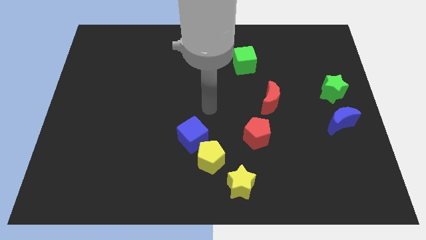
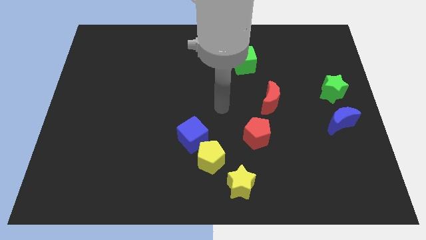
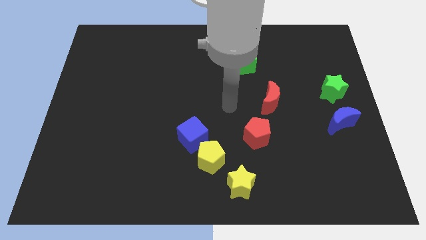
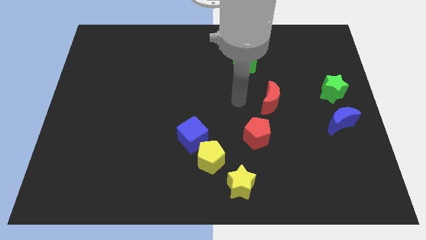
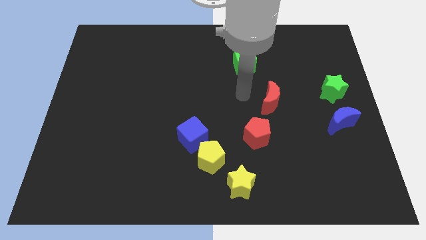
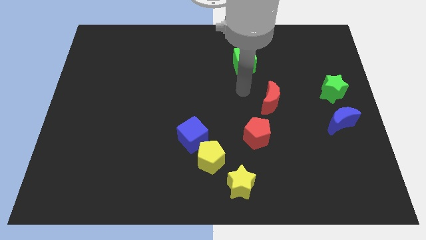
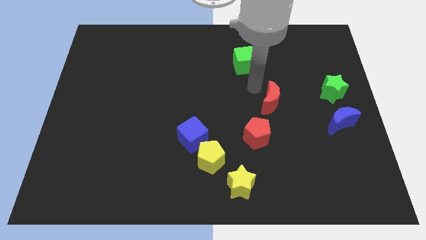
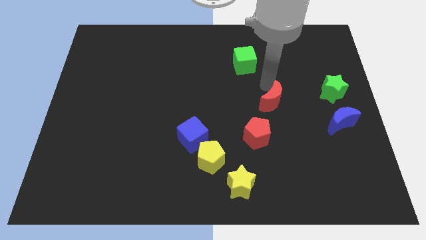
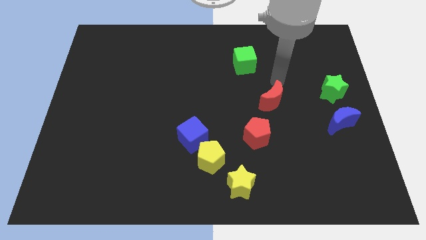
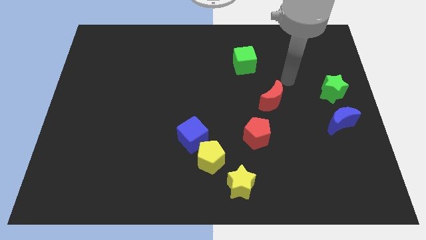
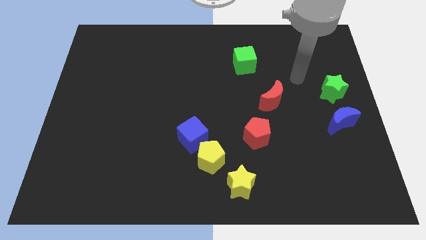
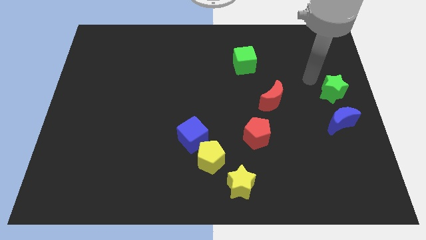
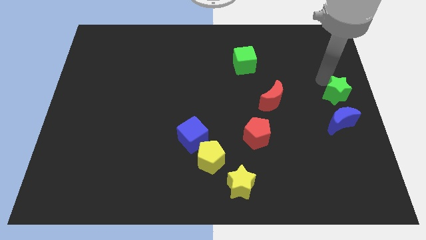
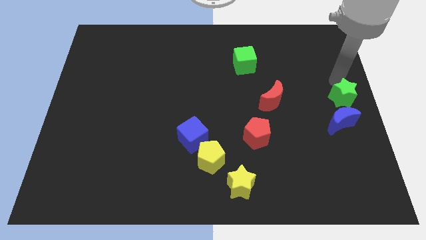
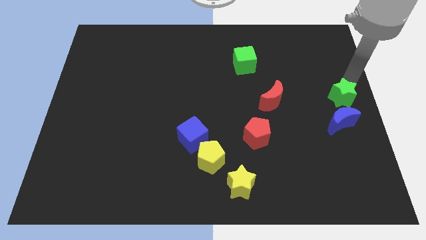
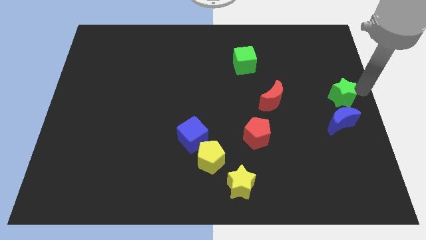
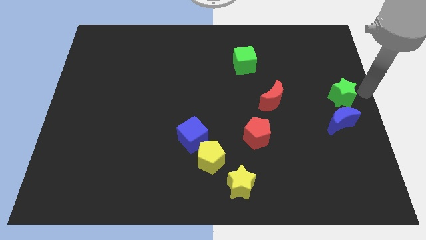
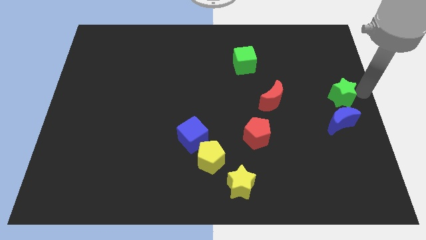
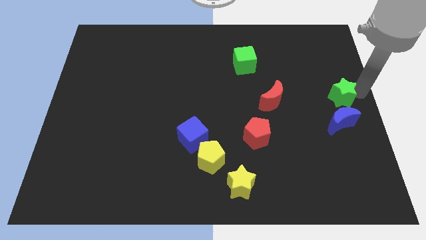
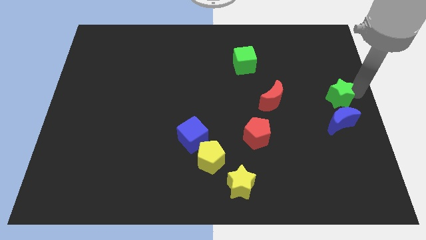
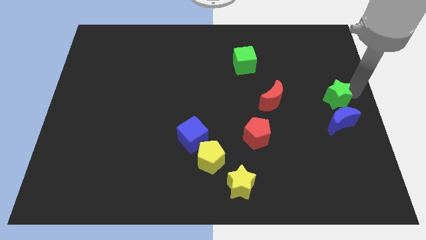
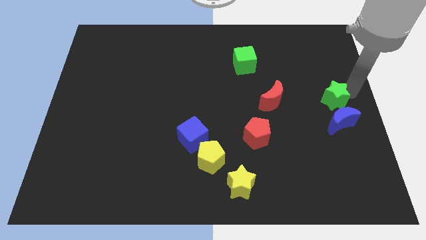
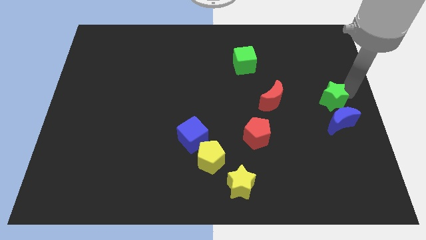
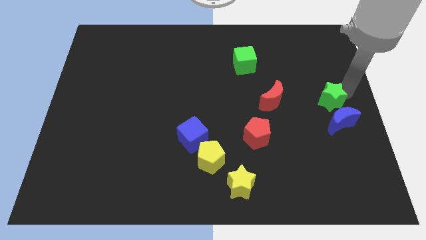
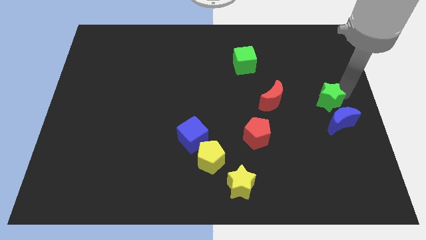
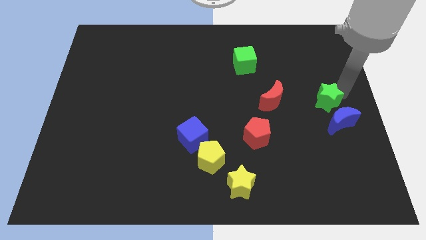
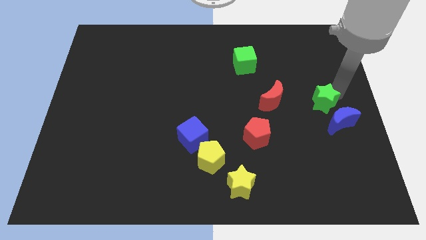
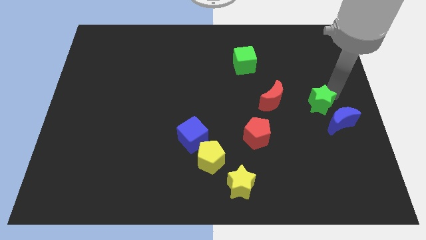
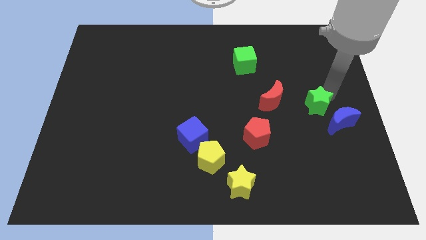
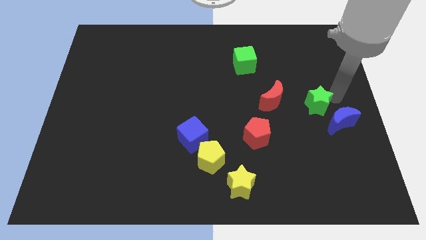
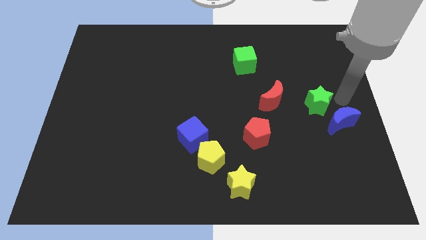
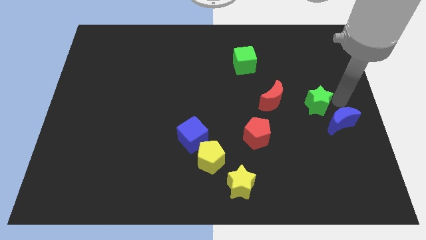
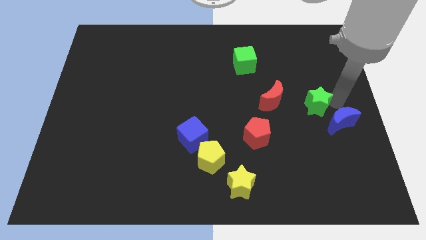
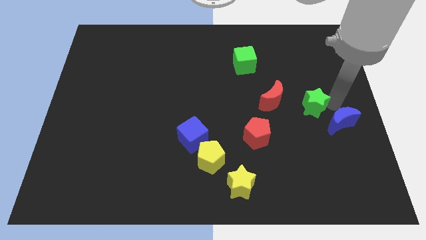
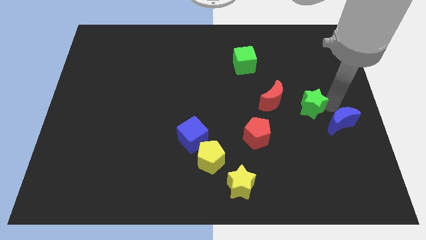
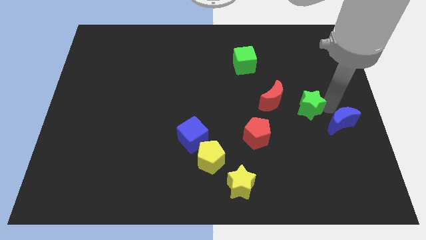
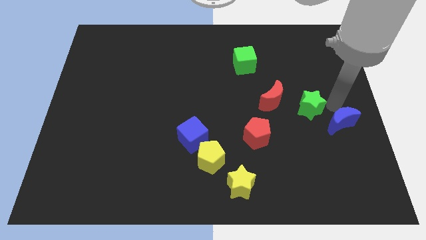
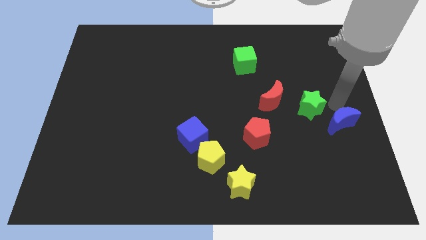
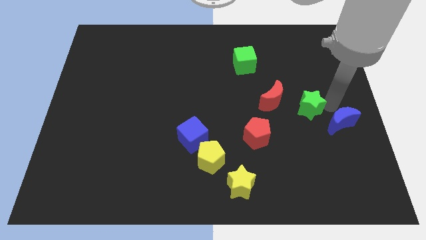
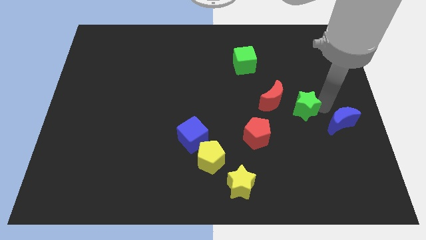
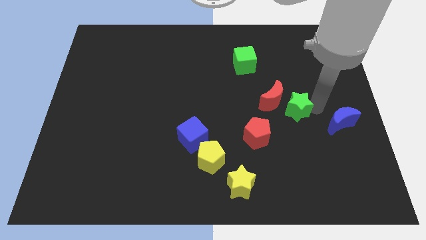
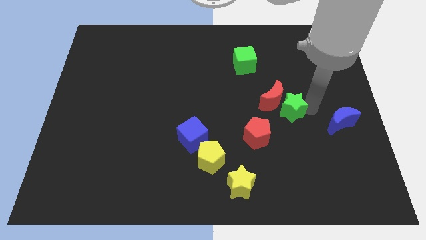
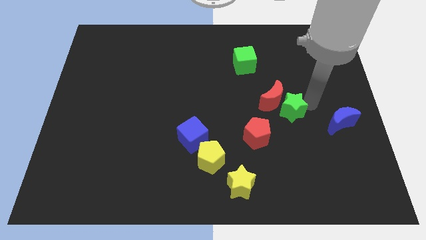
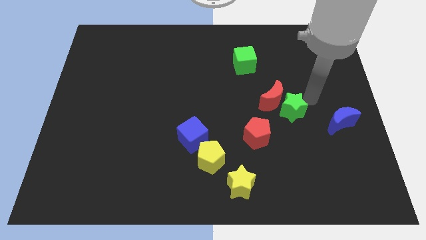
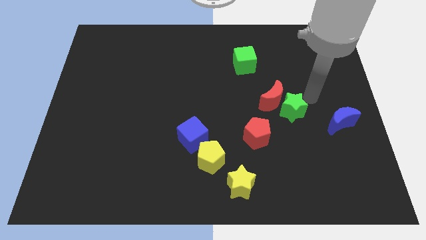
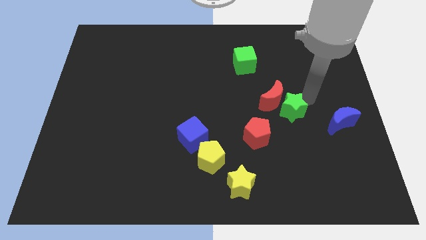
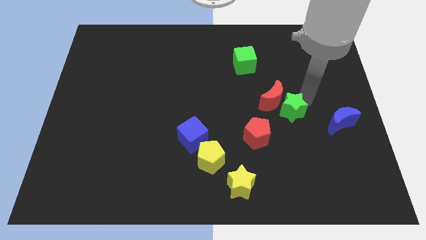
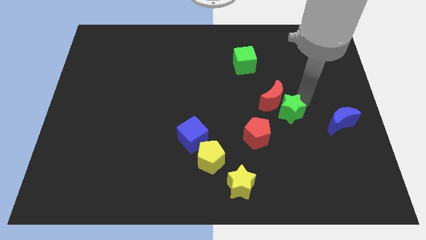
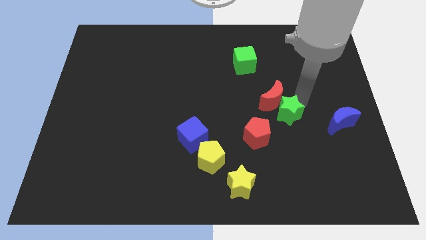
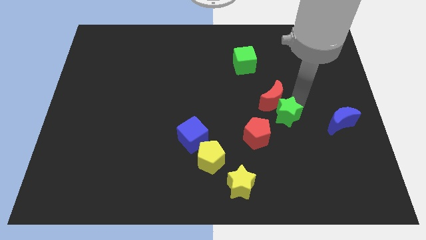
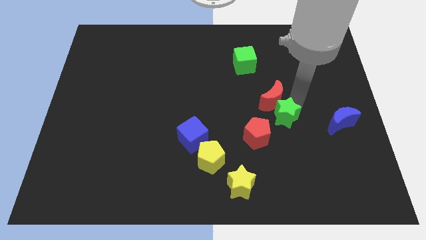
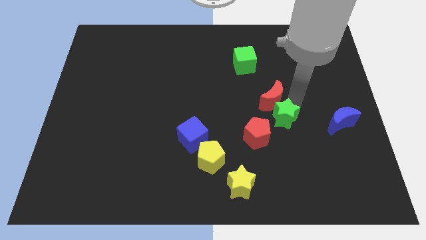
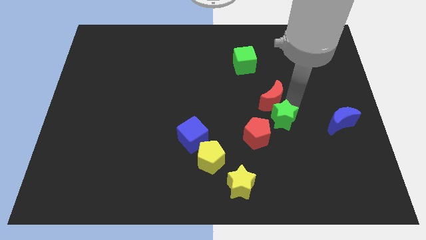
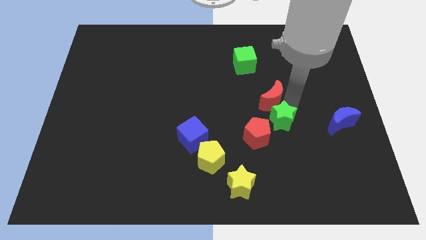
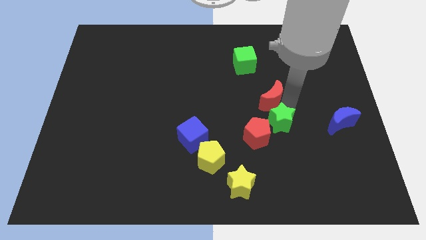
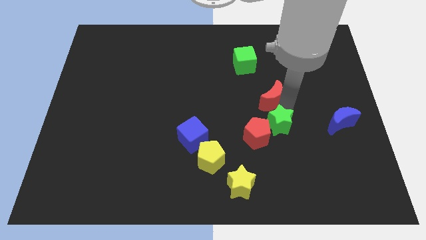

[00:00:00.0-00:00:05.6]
put the green star next to the red pentagon
